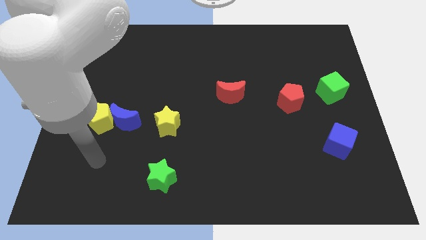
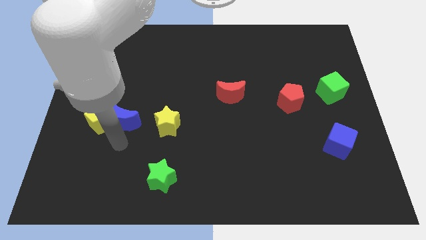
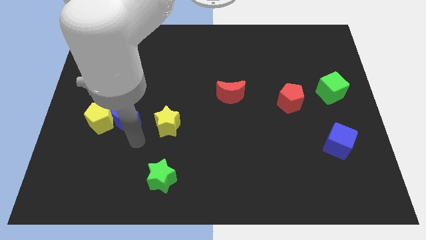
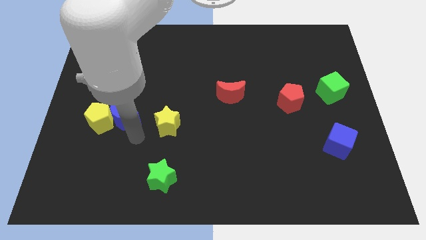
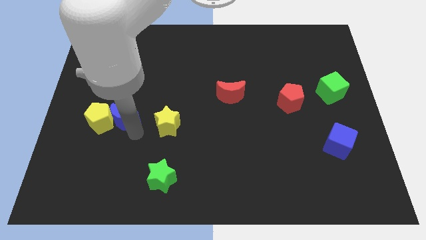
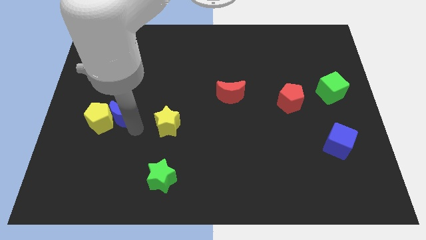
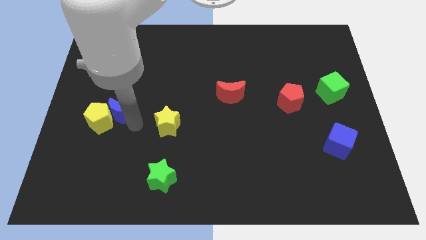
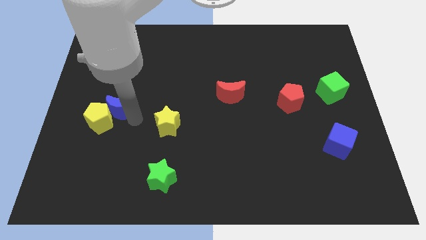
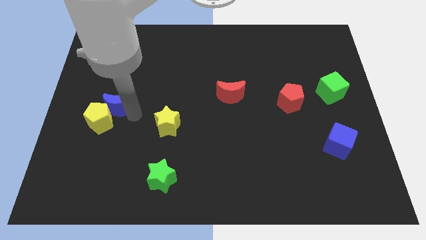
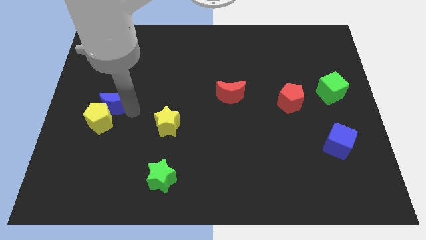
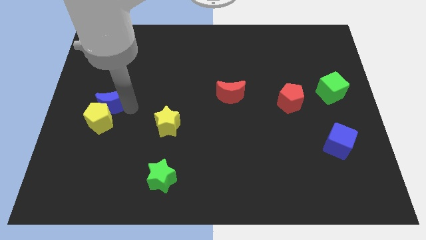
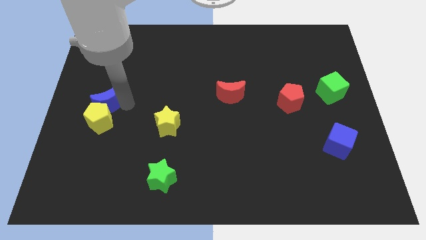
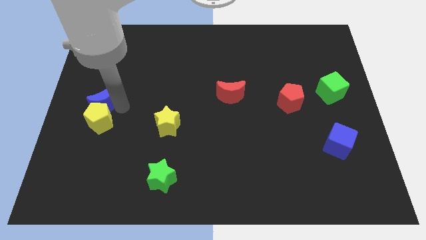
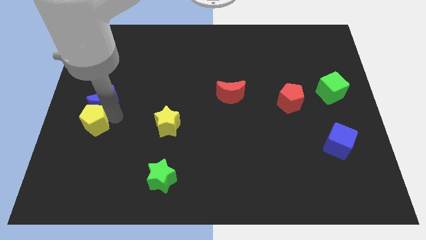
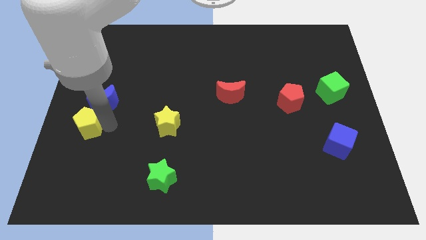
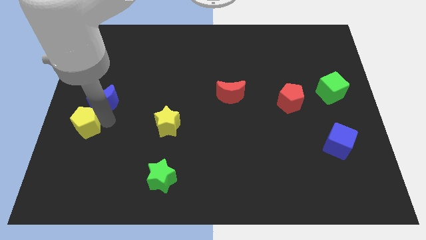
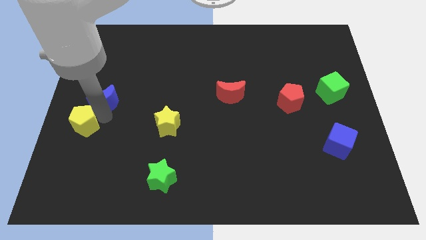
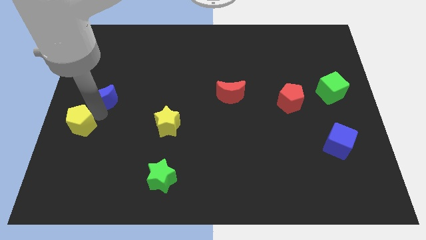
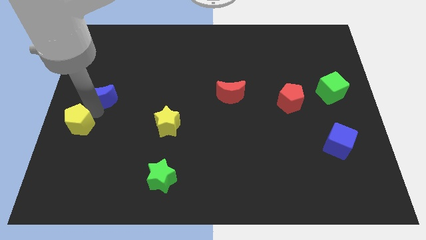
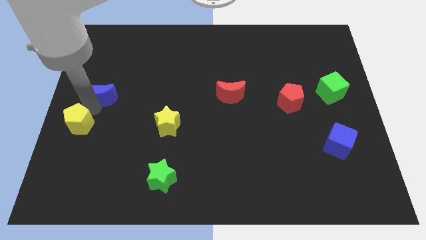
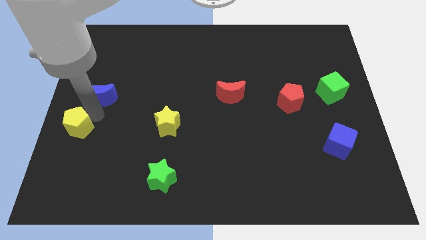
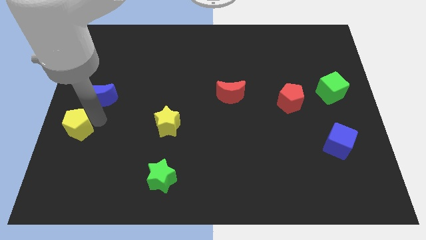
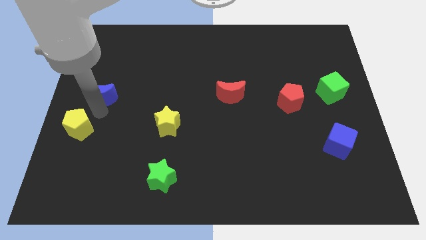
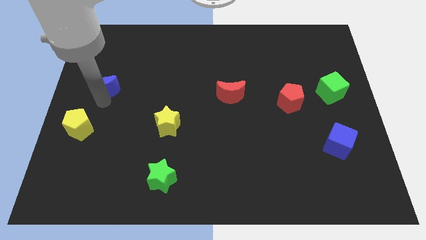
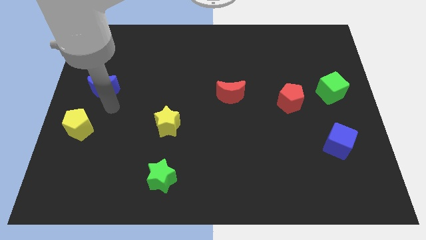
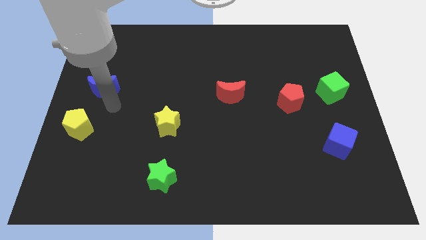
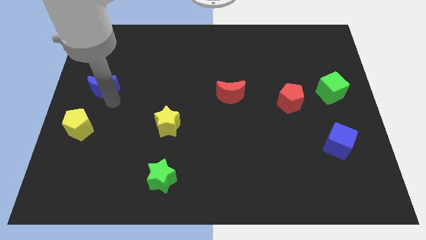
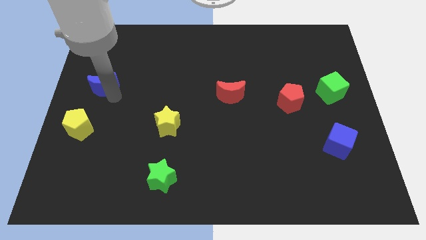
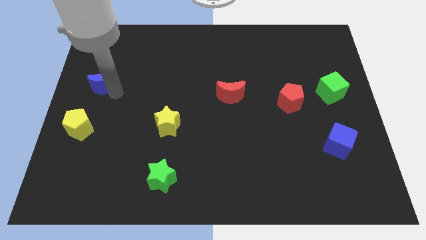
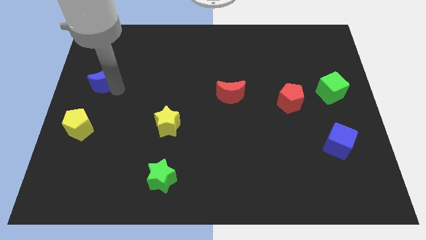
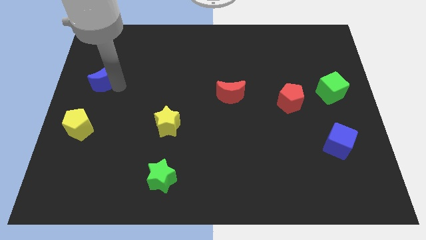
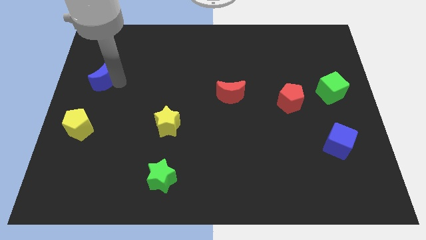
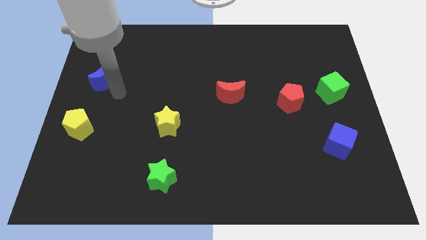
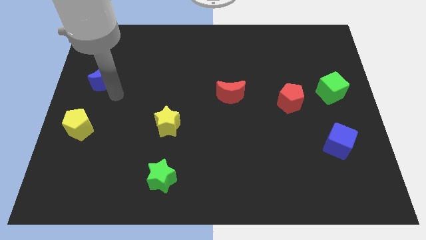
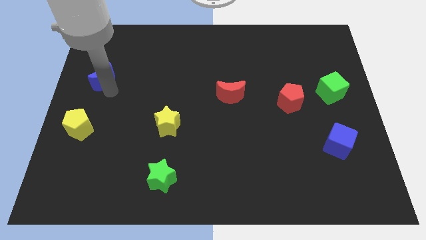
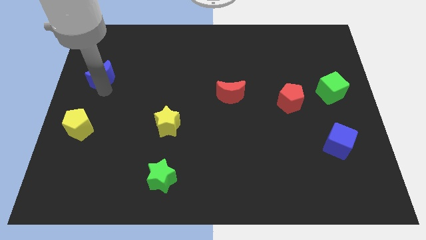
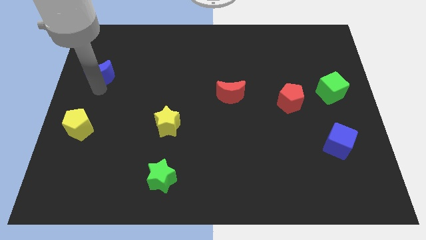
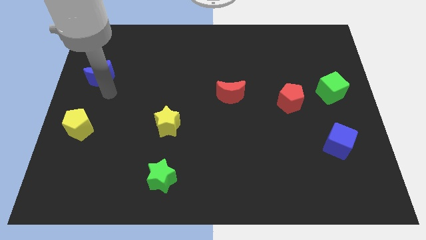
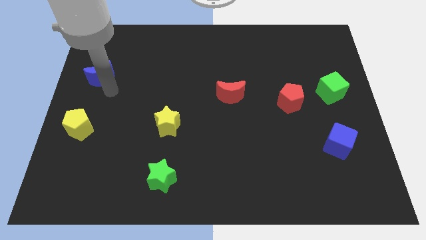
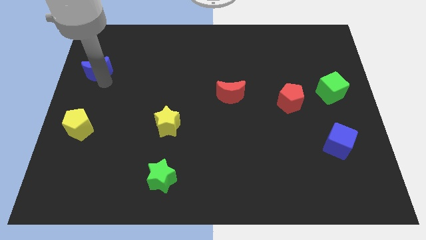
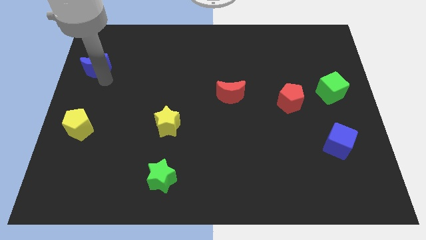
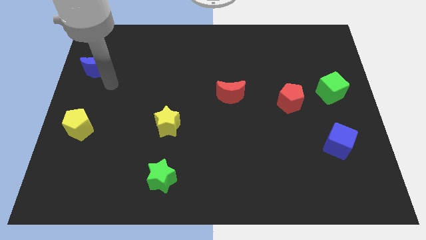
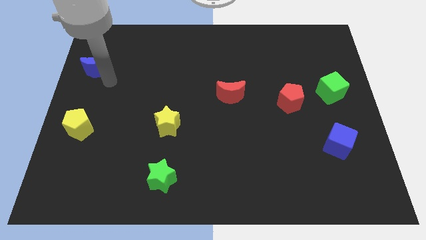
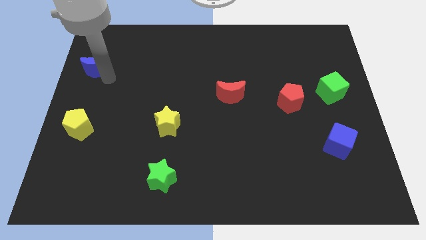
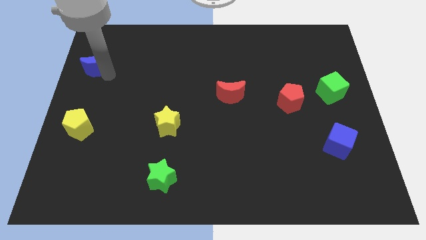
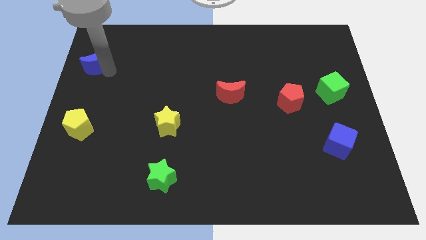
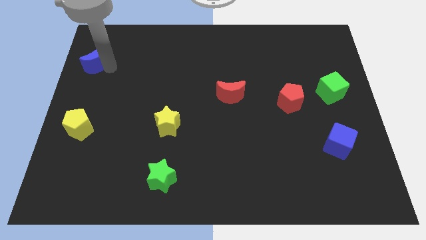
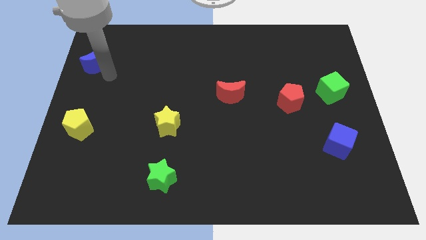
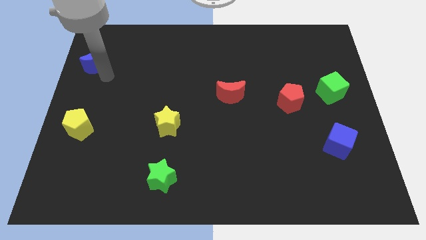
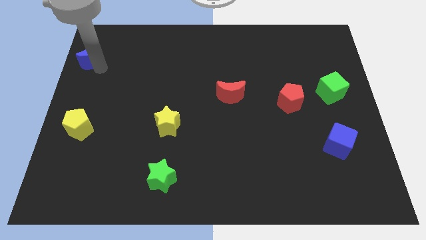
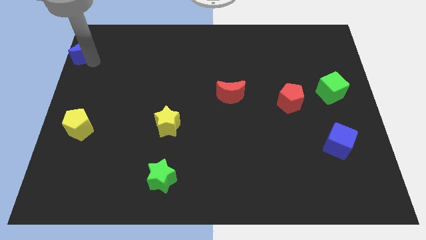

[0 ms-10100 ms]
push the blue moon to the upper left corner

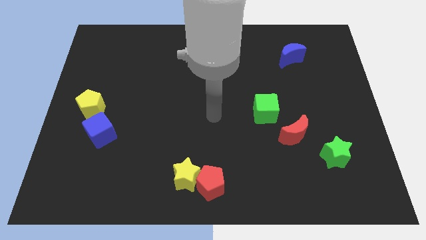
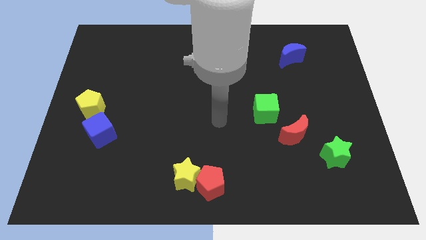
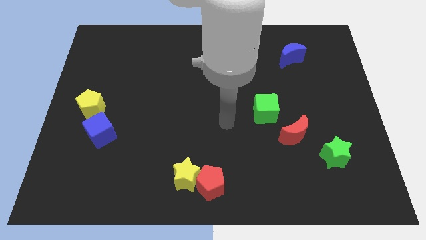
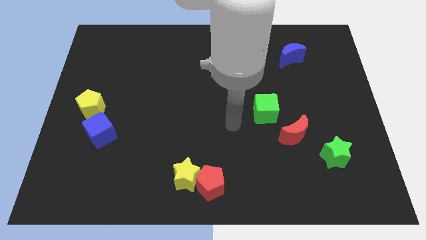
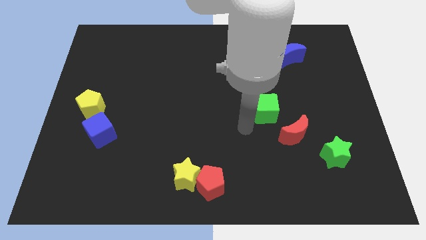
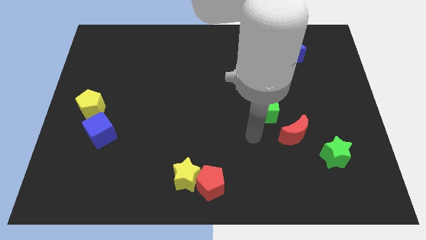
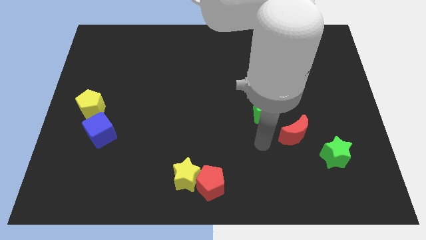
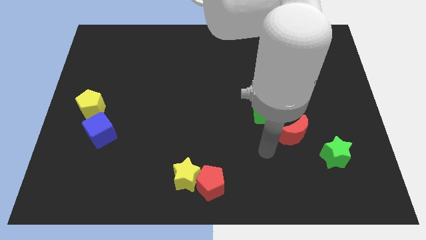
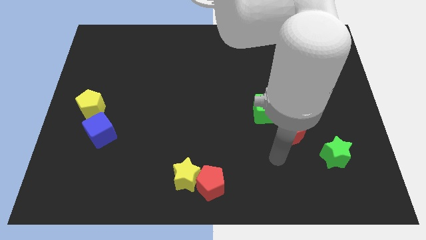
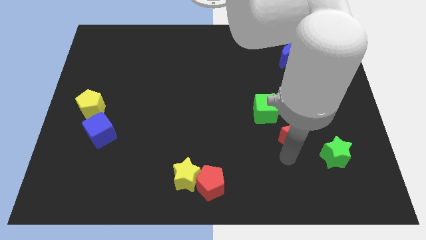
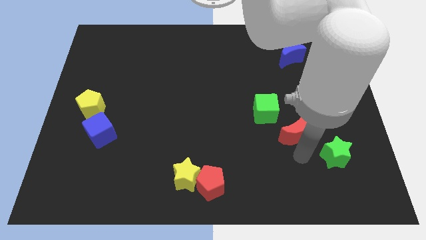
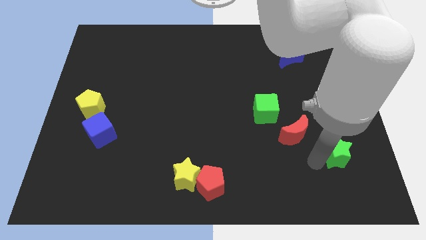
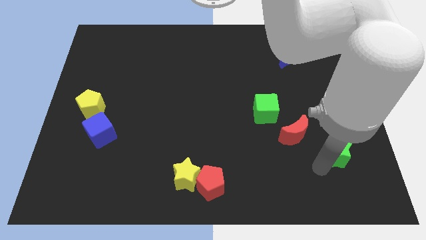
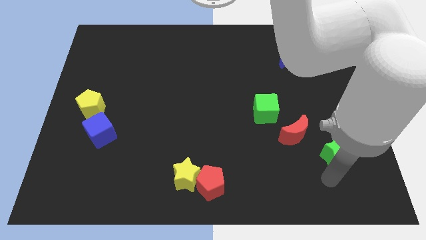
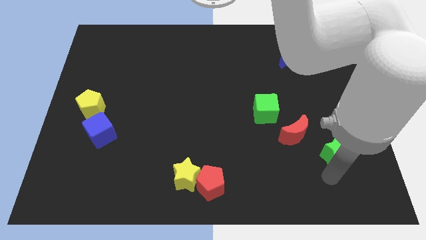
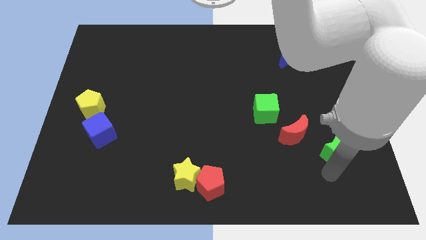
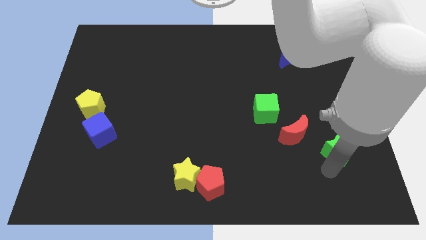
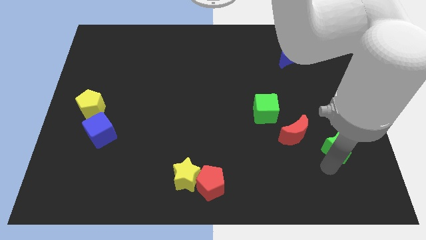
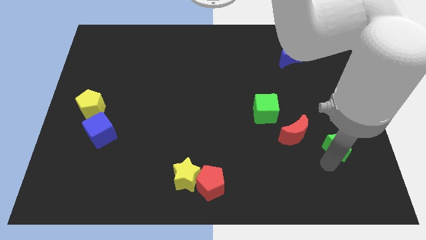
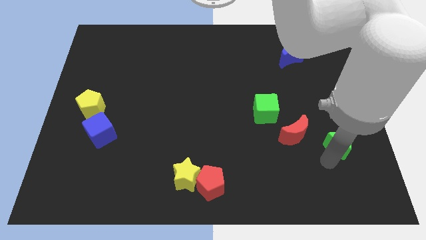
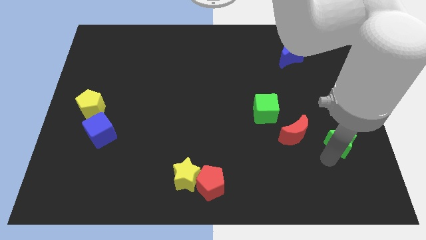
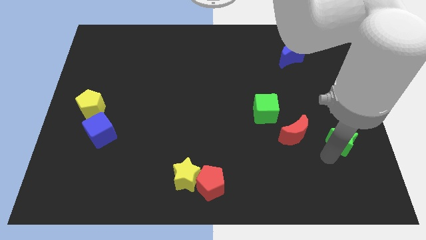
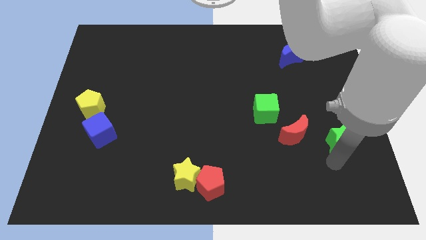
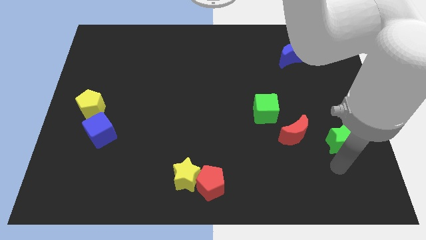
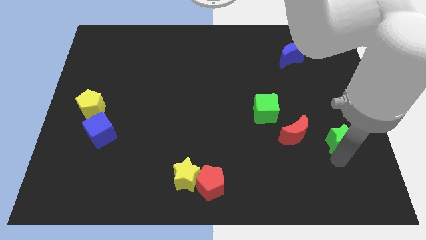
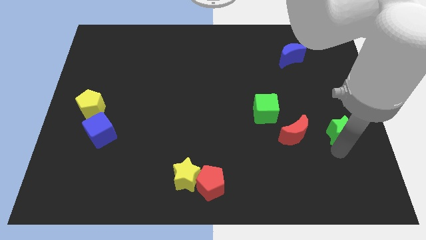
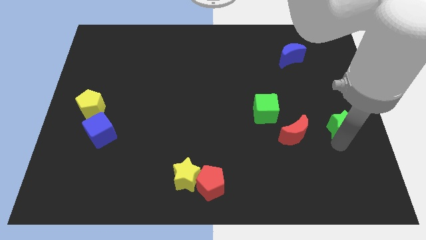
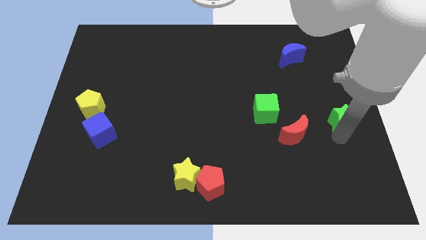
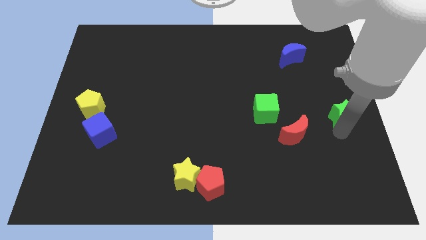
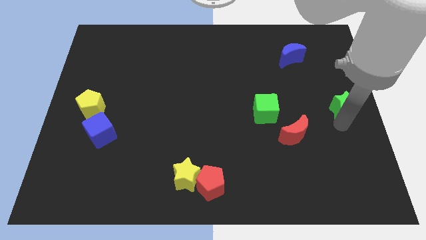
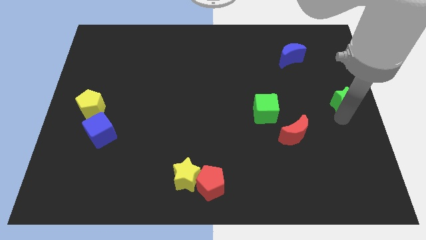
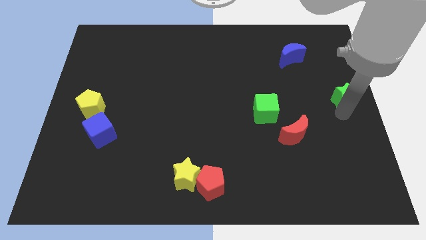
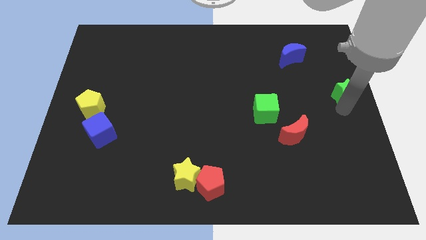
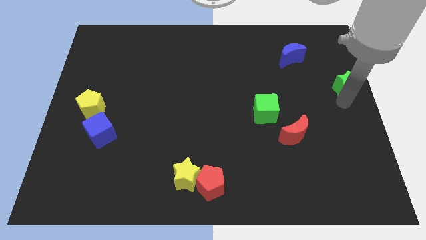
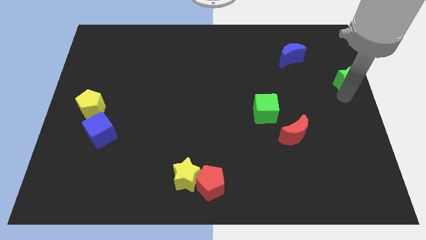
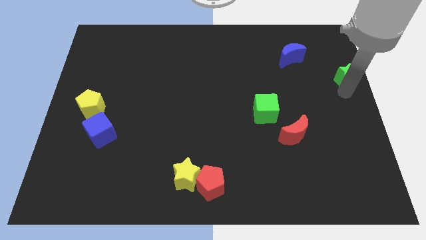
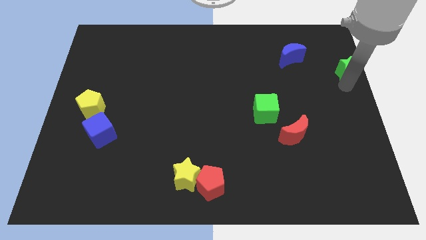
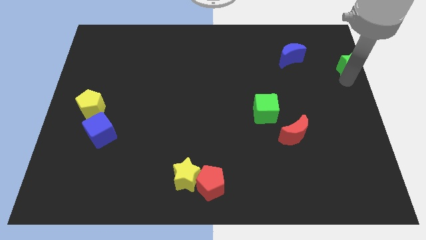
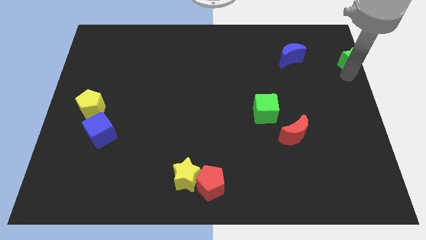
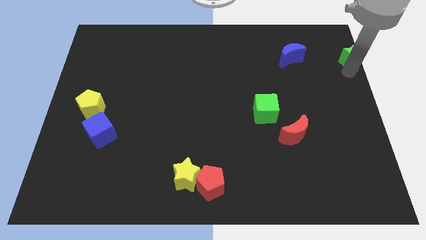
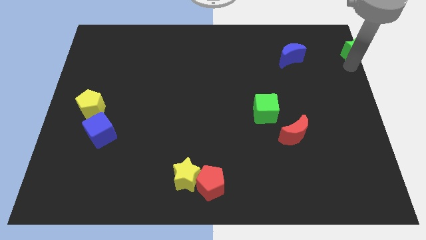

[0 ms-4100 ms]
move the green star to the upper right corner
